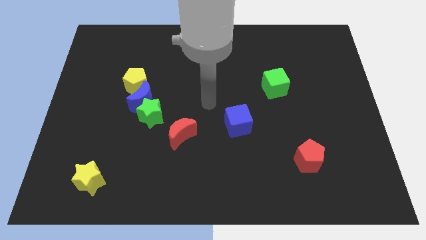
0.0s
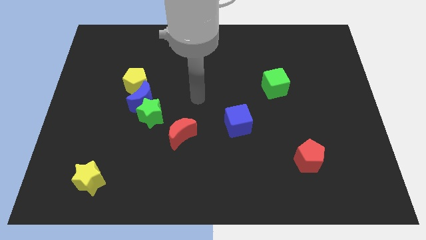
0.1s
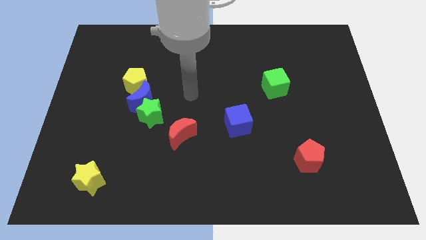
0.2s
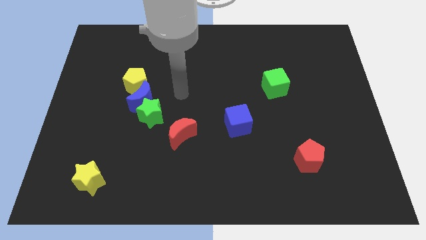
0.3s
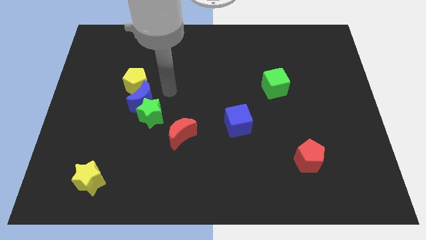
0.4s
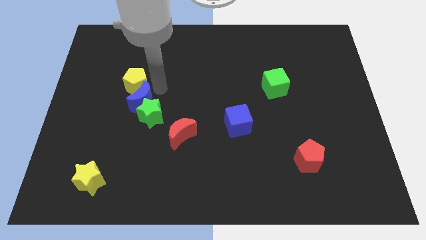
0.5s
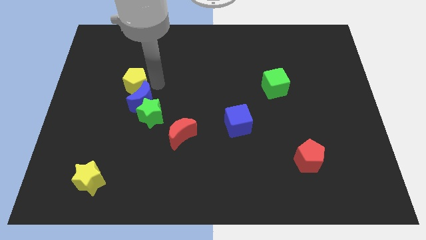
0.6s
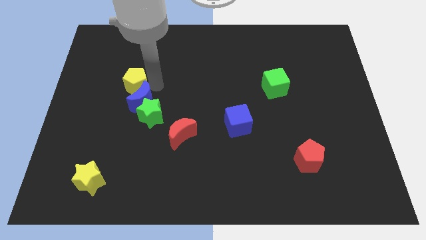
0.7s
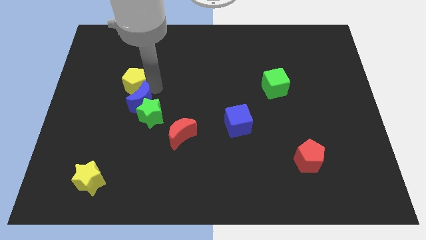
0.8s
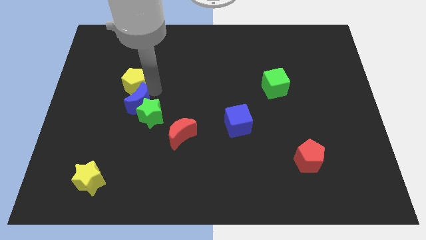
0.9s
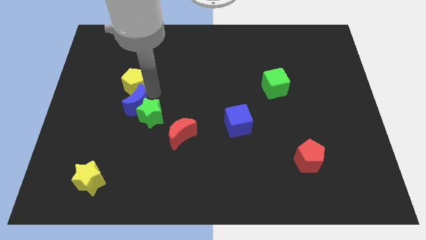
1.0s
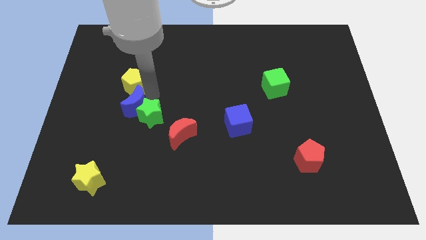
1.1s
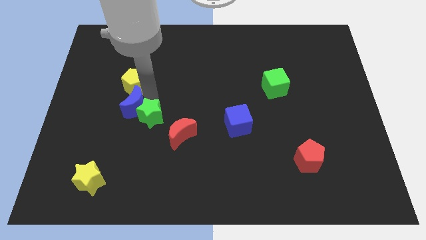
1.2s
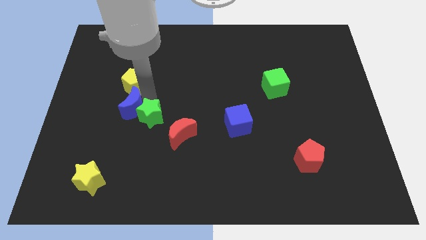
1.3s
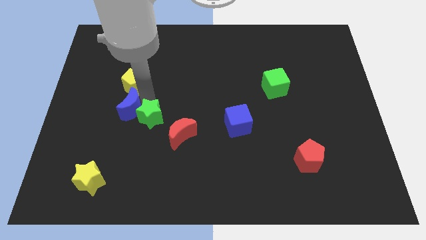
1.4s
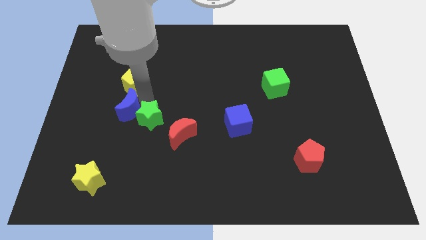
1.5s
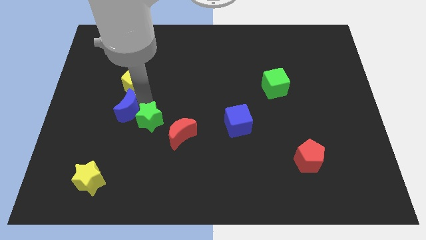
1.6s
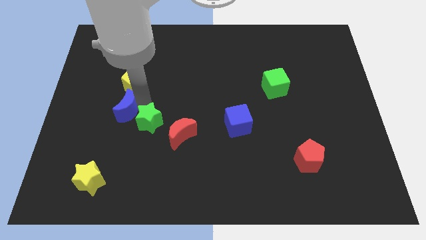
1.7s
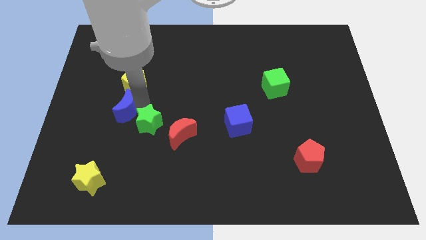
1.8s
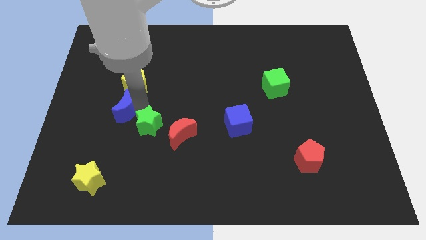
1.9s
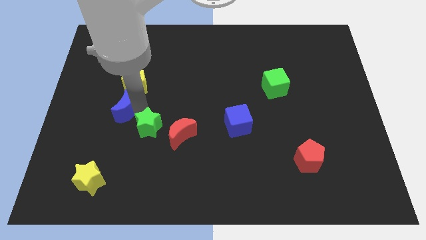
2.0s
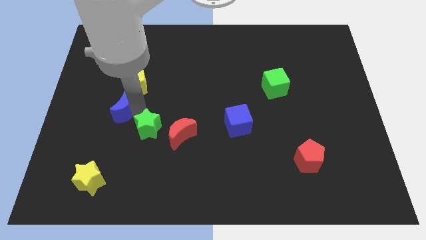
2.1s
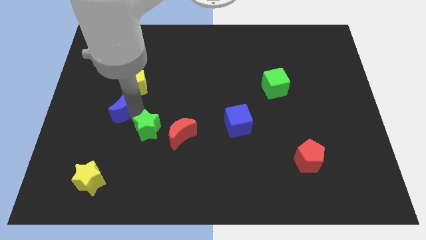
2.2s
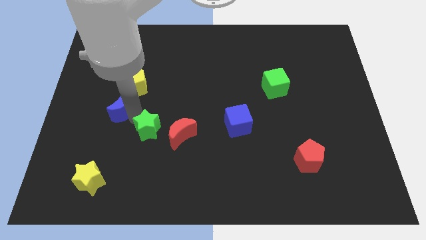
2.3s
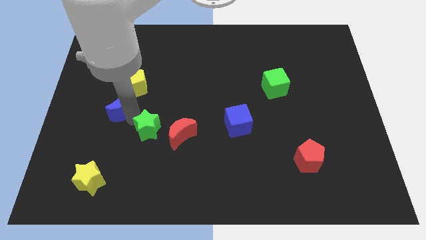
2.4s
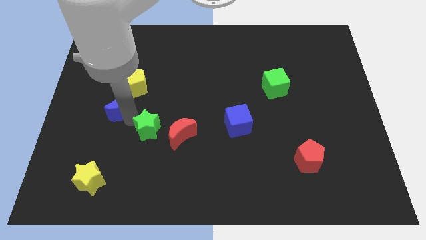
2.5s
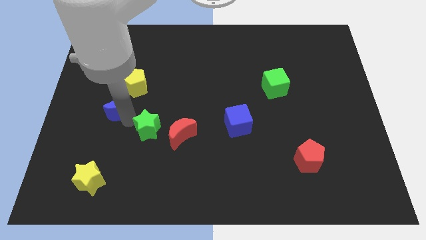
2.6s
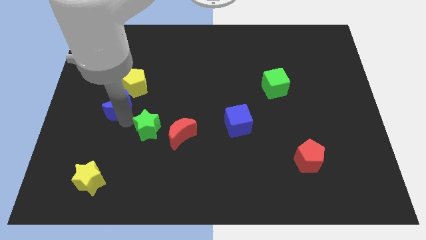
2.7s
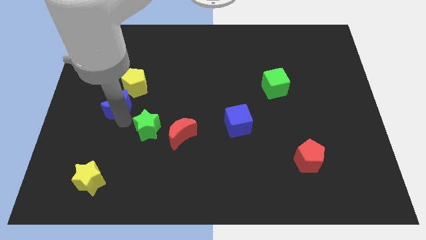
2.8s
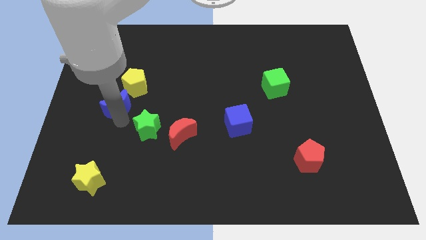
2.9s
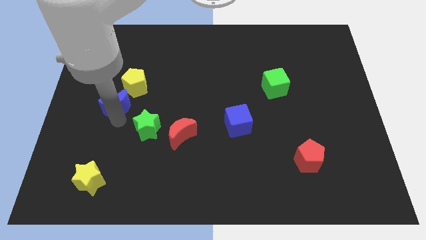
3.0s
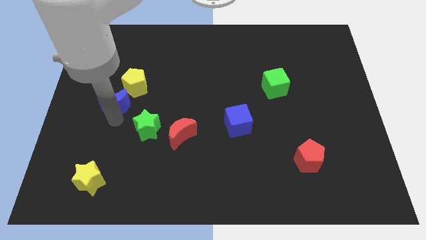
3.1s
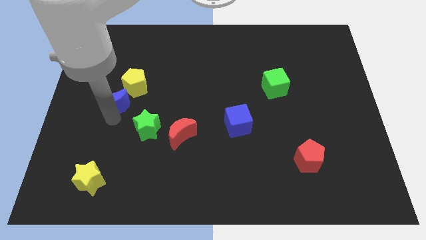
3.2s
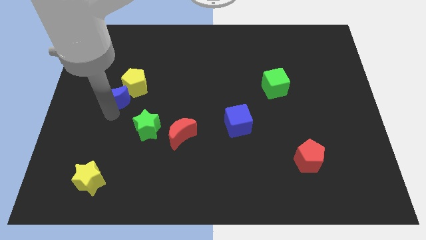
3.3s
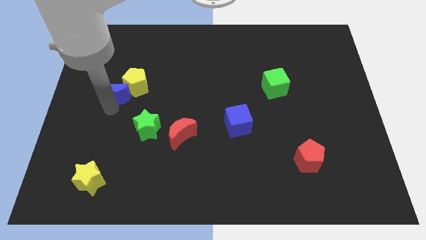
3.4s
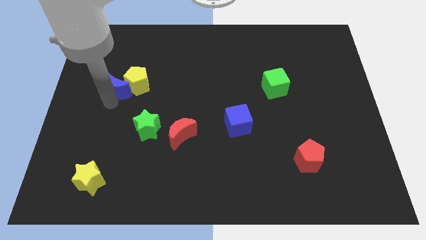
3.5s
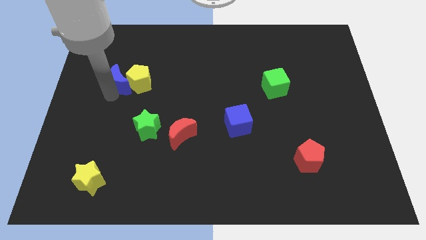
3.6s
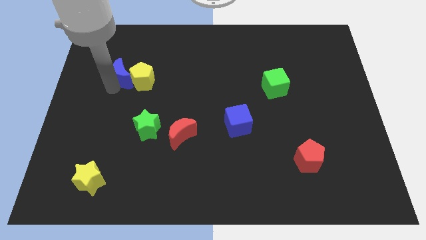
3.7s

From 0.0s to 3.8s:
pull the blue moon apart from the green star and yellow pentagon

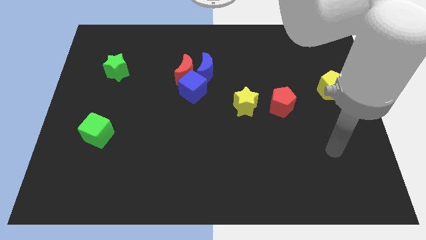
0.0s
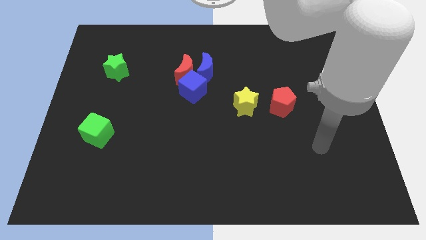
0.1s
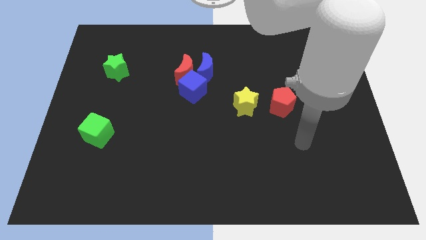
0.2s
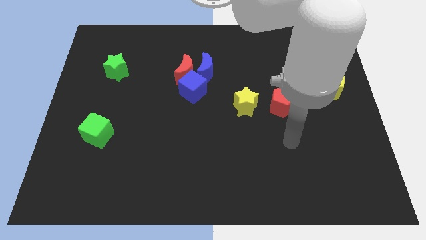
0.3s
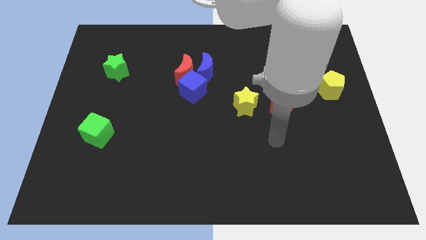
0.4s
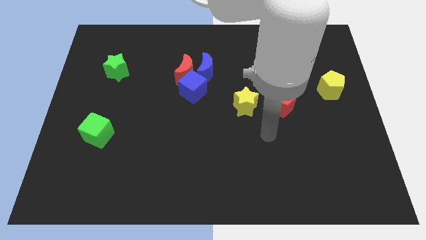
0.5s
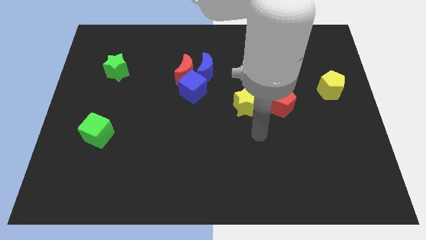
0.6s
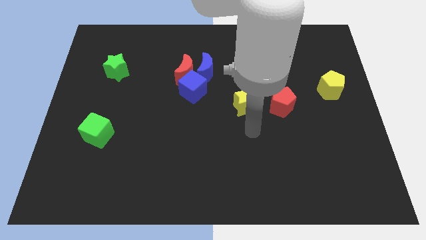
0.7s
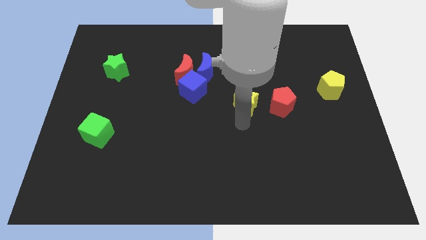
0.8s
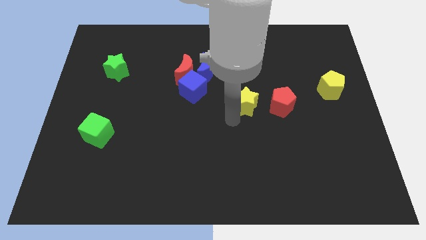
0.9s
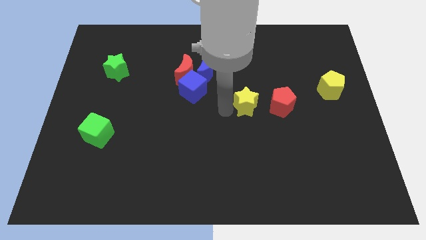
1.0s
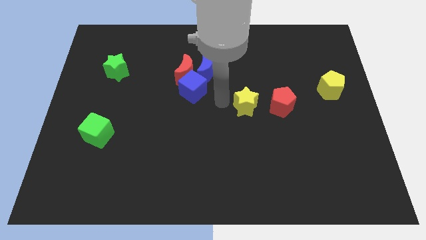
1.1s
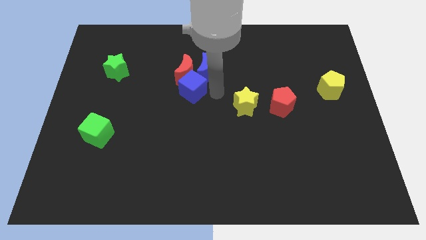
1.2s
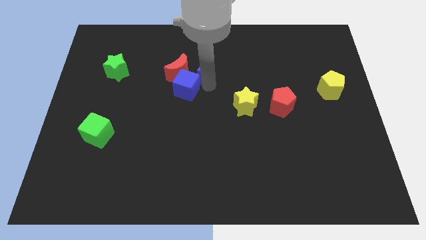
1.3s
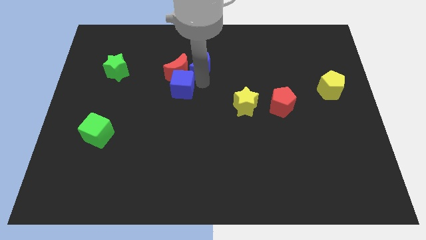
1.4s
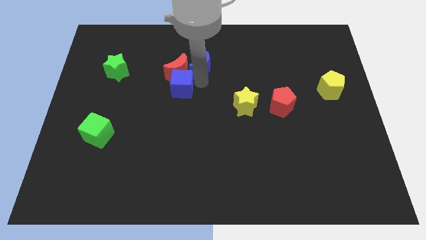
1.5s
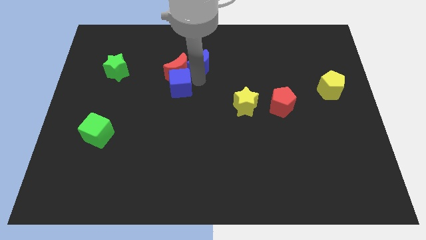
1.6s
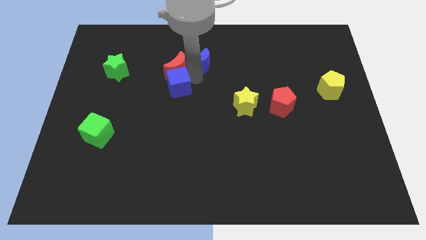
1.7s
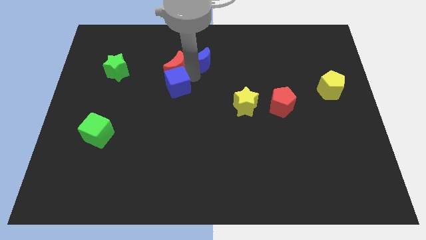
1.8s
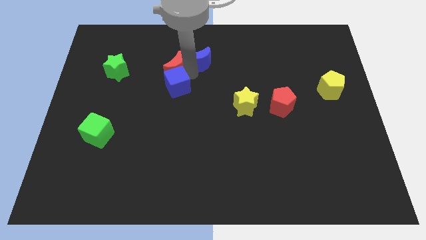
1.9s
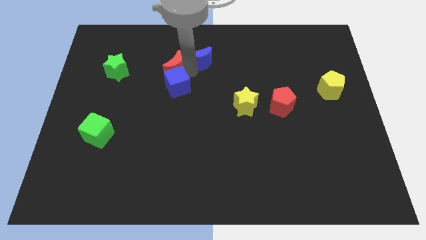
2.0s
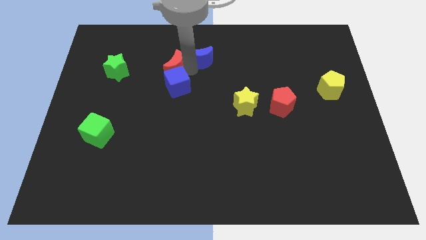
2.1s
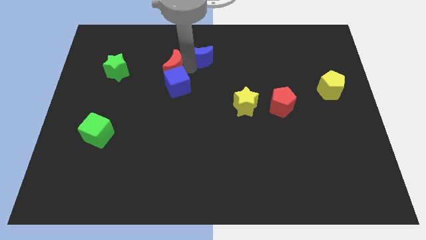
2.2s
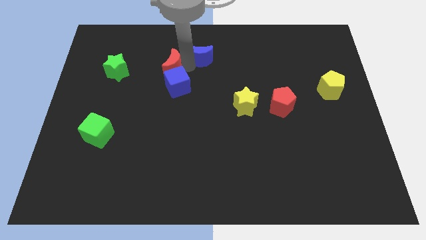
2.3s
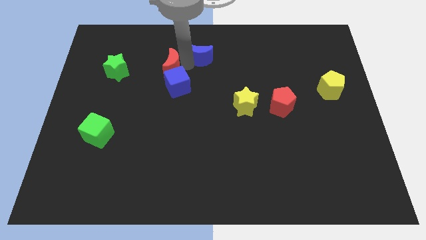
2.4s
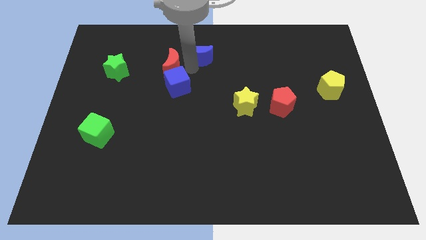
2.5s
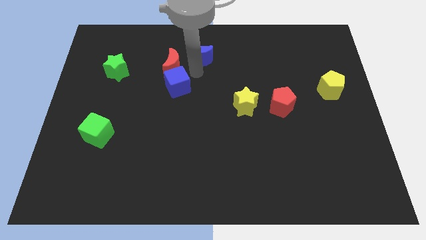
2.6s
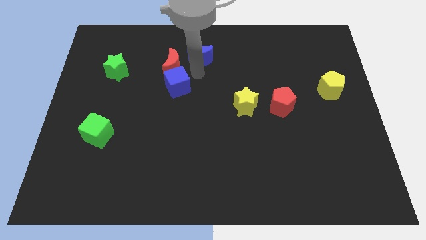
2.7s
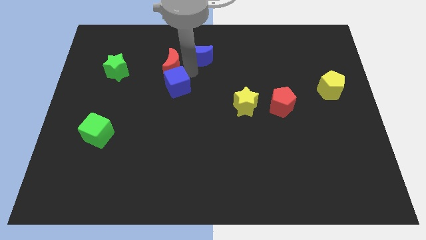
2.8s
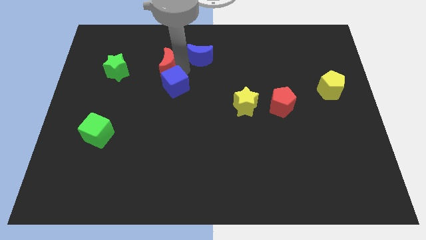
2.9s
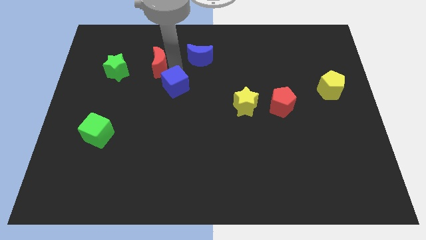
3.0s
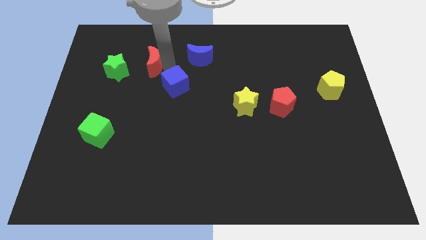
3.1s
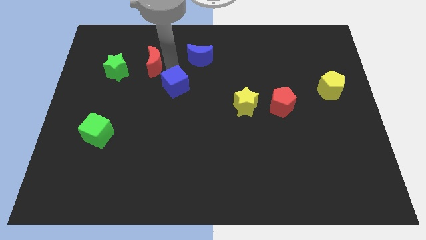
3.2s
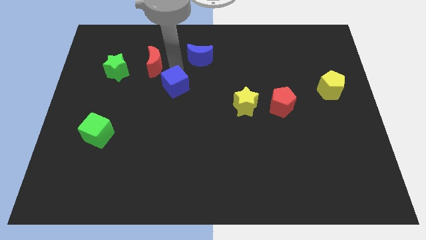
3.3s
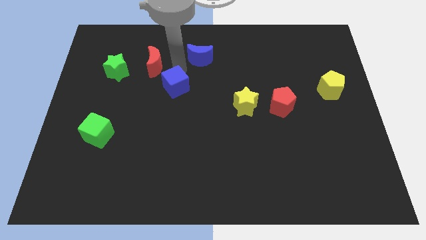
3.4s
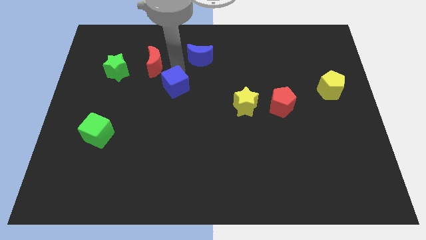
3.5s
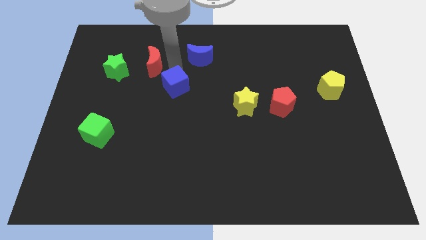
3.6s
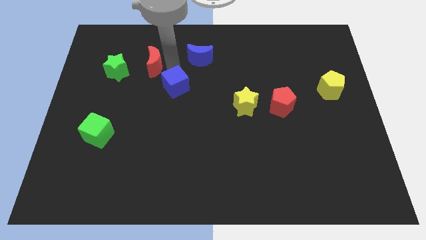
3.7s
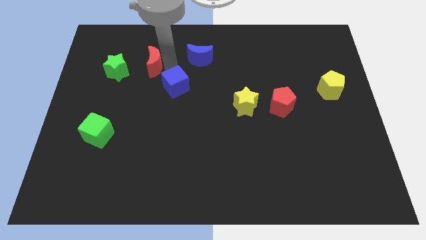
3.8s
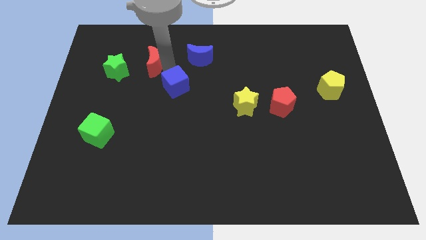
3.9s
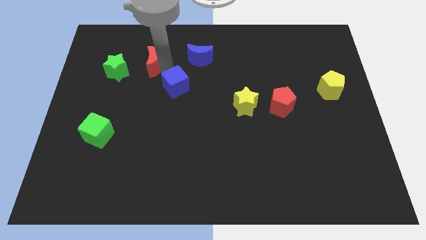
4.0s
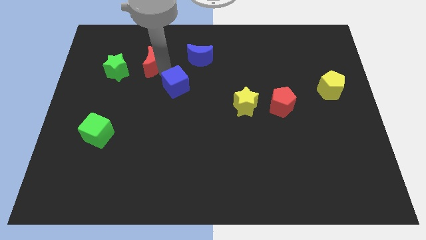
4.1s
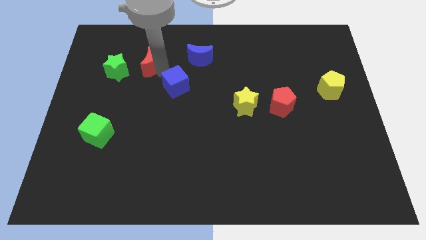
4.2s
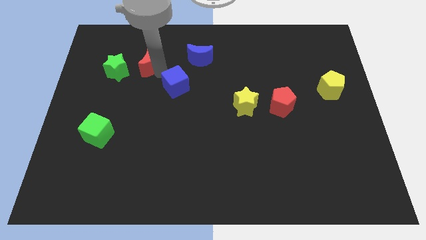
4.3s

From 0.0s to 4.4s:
pull the red moon apart from the blue moon and blue cube

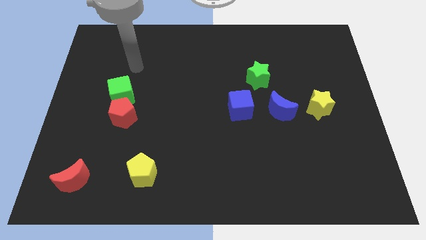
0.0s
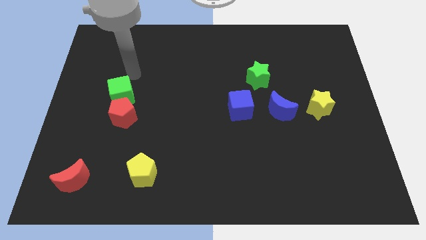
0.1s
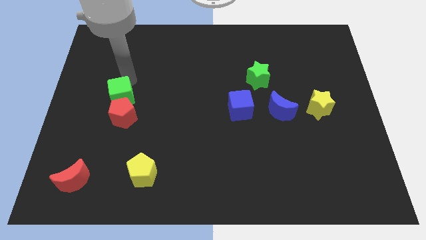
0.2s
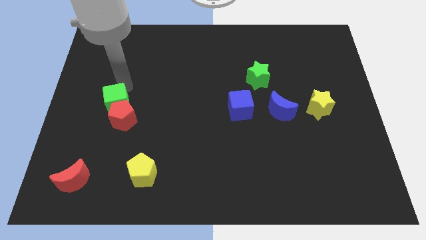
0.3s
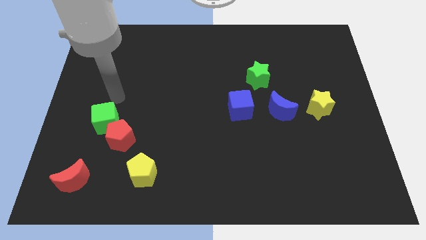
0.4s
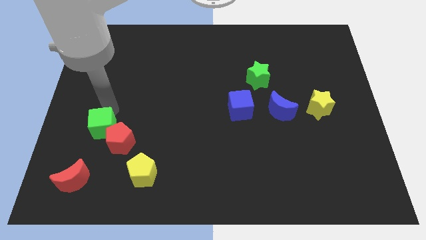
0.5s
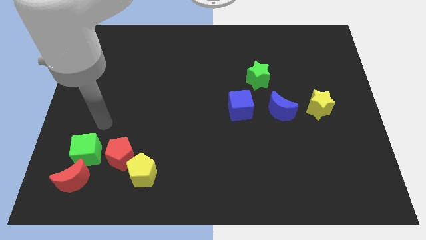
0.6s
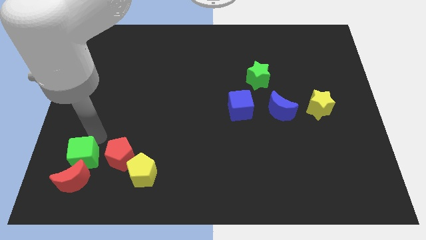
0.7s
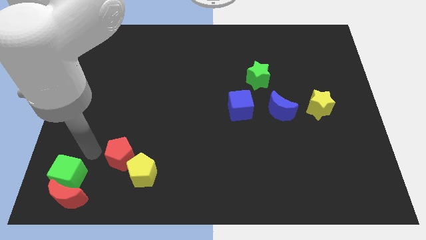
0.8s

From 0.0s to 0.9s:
separate the red pentagon from the green cube

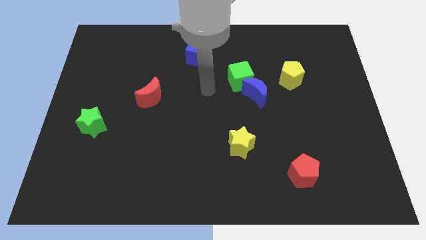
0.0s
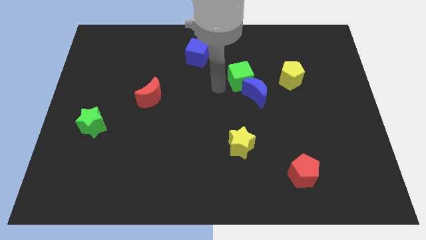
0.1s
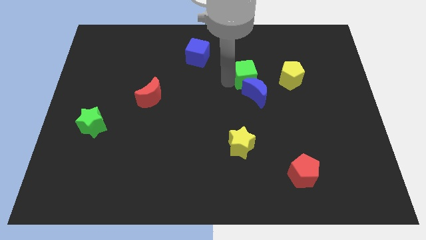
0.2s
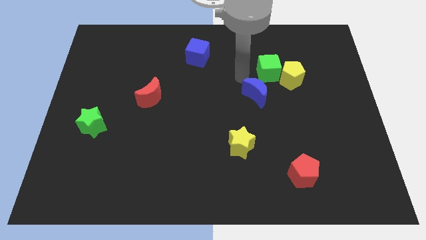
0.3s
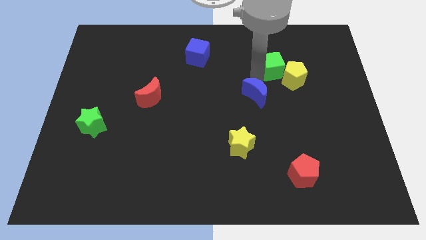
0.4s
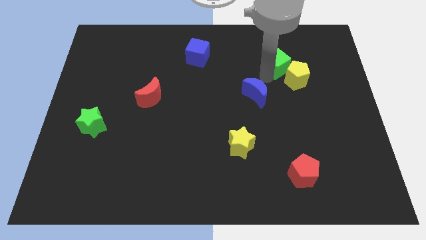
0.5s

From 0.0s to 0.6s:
pull the blue moon apart from the green cube
